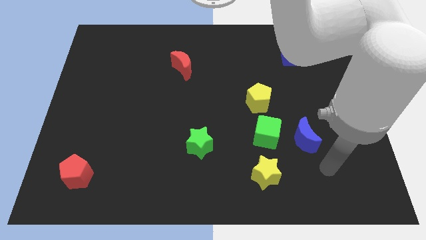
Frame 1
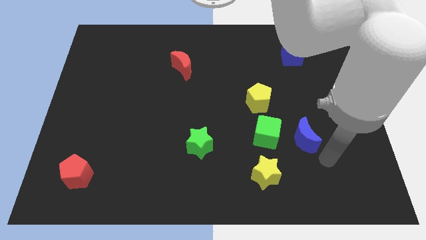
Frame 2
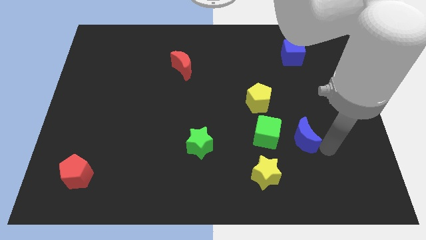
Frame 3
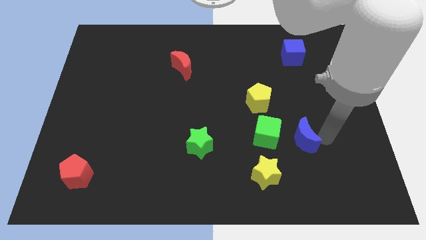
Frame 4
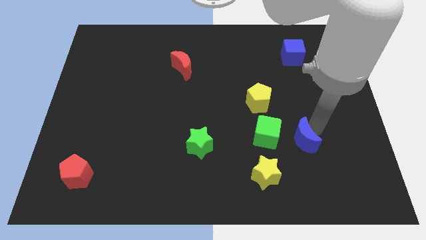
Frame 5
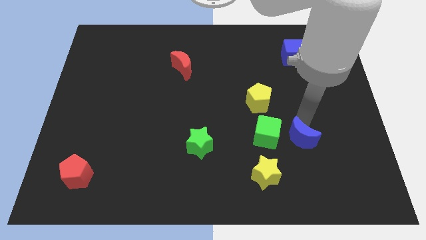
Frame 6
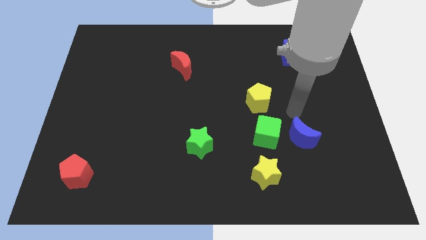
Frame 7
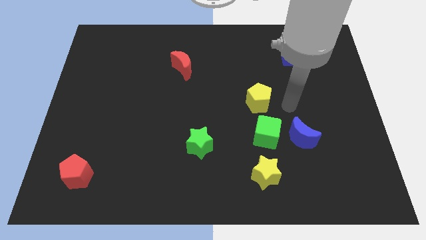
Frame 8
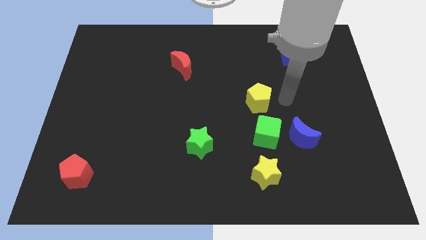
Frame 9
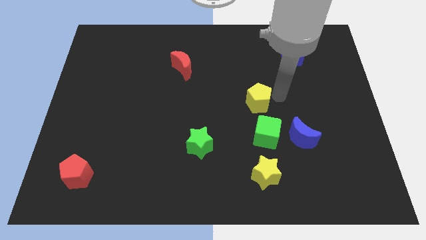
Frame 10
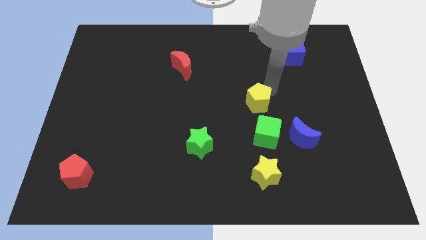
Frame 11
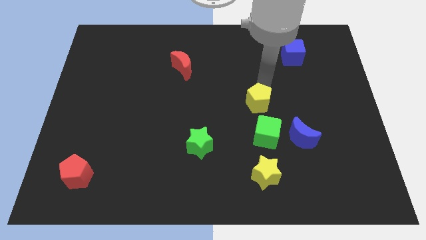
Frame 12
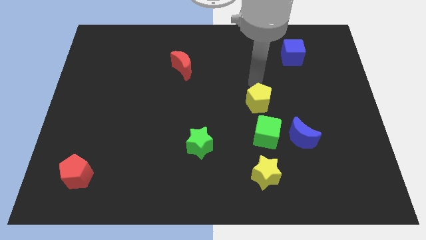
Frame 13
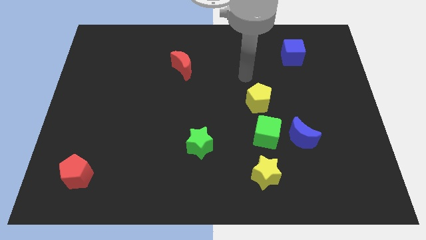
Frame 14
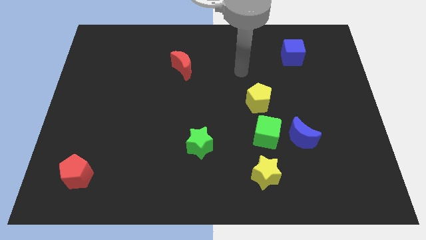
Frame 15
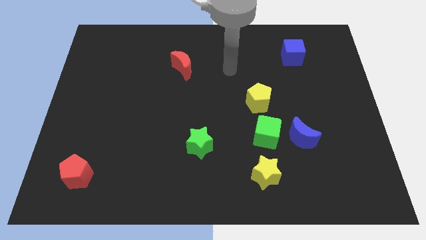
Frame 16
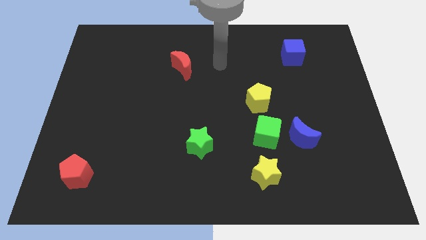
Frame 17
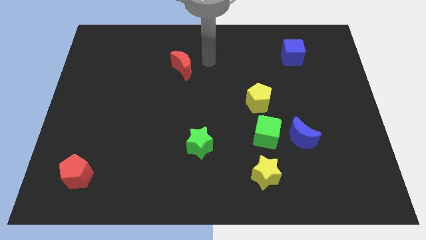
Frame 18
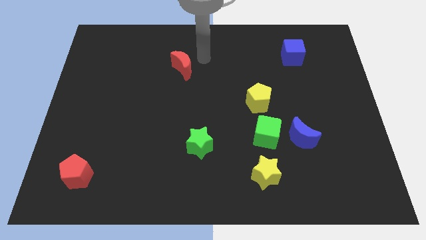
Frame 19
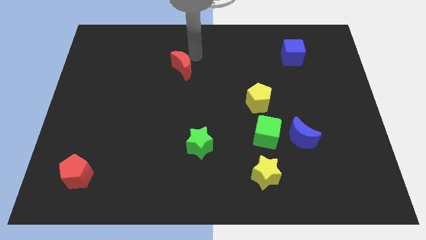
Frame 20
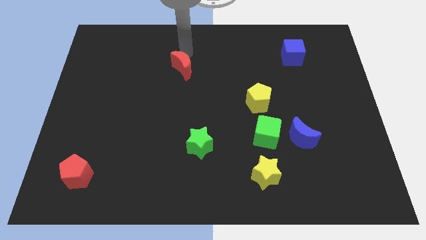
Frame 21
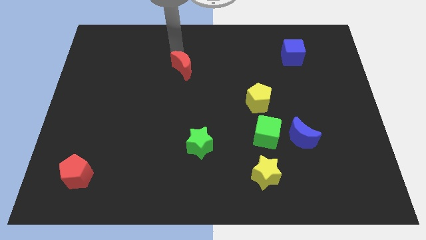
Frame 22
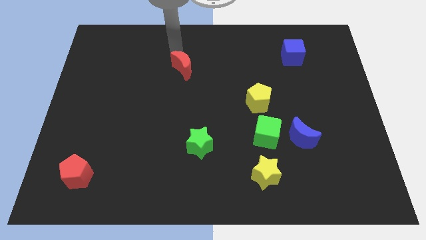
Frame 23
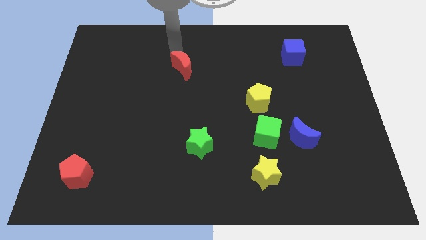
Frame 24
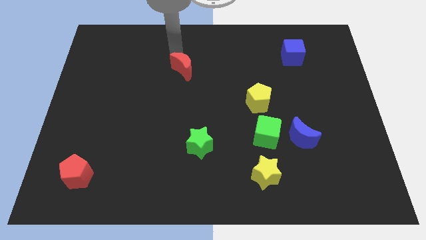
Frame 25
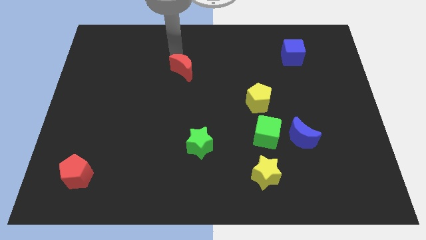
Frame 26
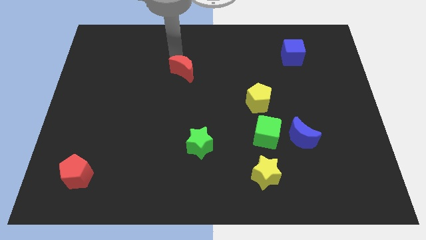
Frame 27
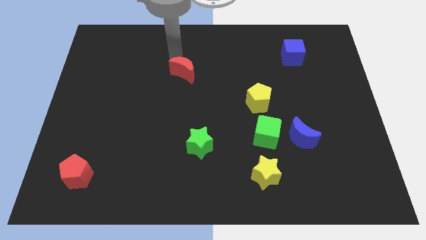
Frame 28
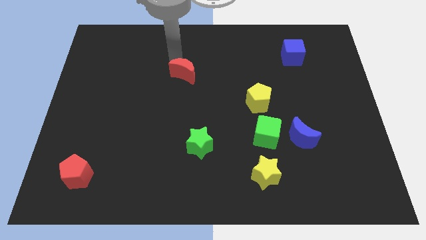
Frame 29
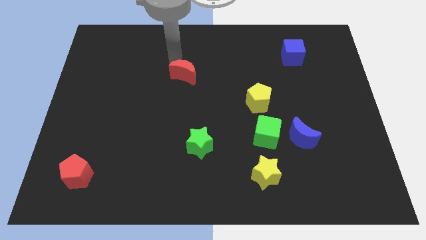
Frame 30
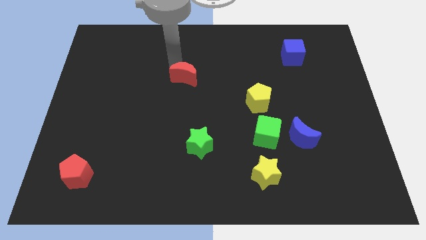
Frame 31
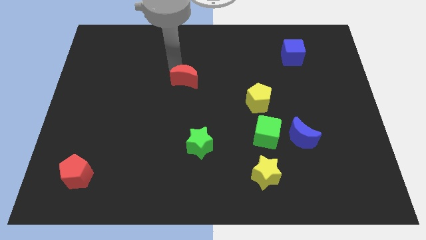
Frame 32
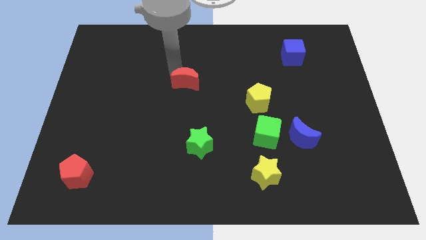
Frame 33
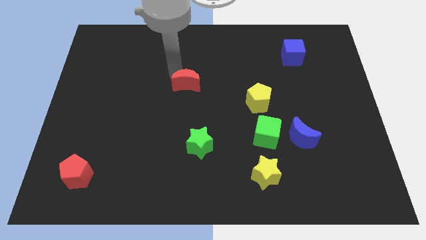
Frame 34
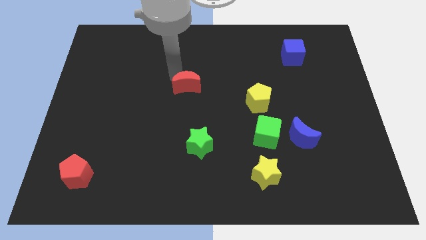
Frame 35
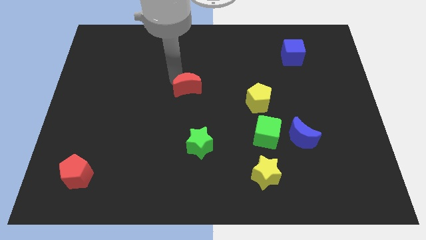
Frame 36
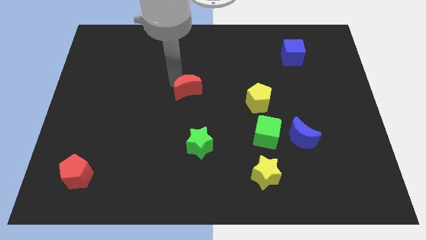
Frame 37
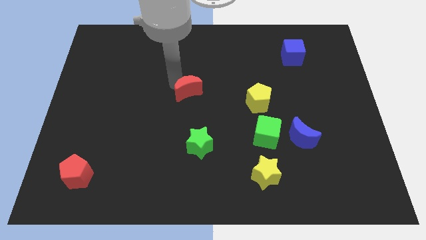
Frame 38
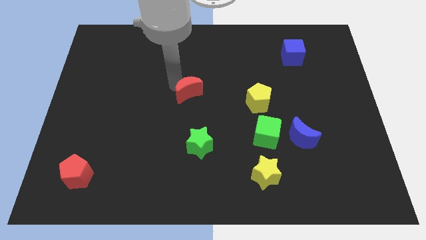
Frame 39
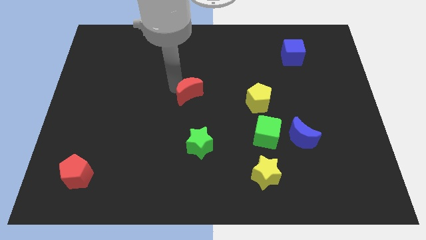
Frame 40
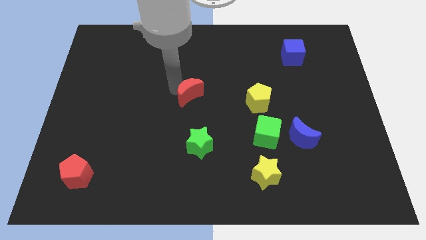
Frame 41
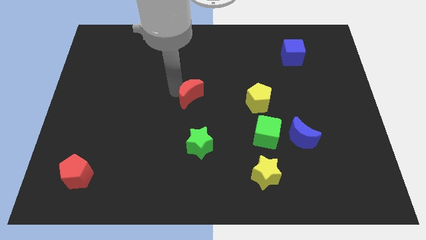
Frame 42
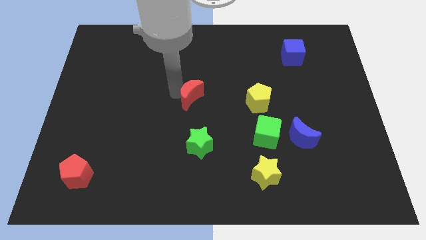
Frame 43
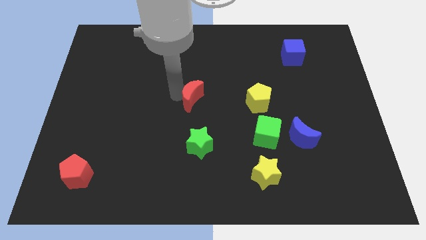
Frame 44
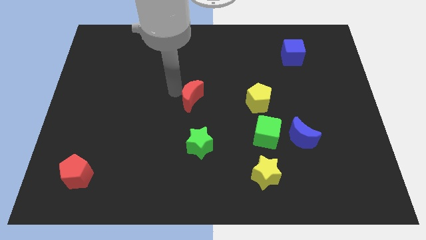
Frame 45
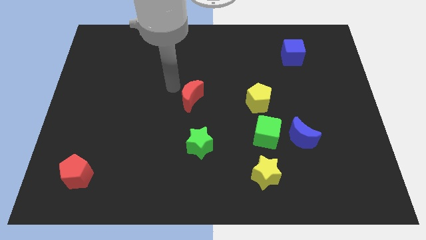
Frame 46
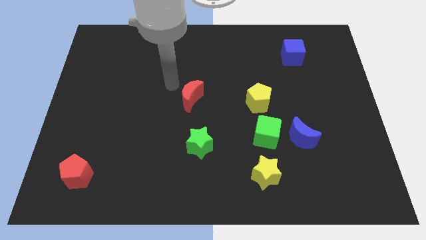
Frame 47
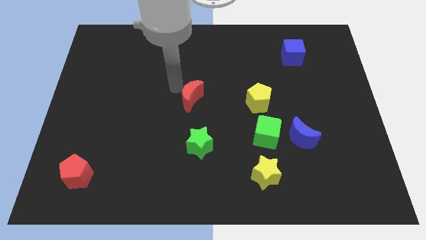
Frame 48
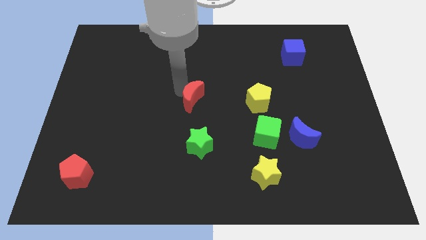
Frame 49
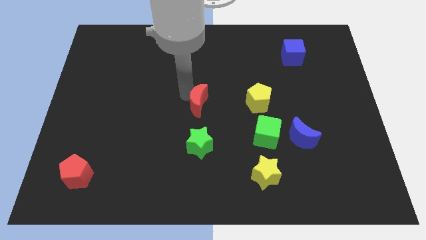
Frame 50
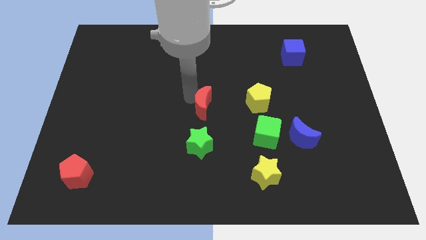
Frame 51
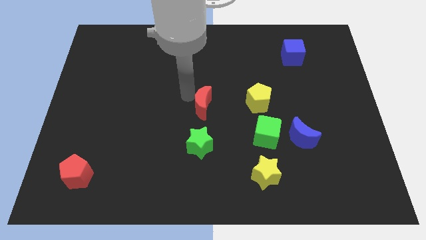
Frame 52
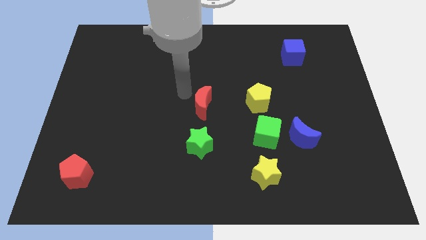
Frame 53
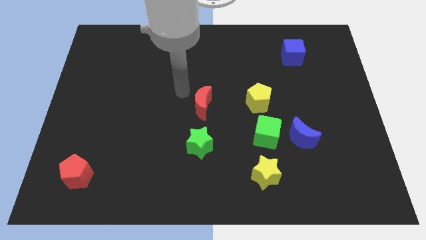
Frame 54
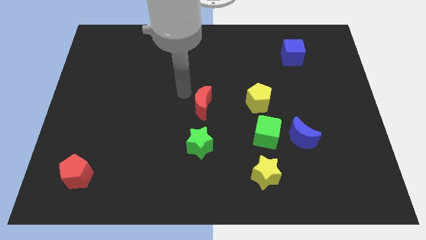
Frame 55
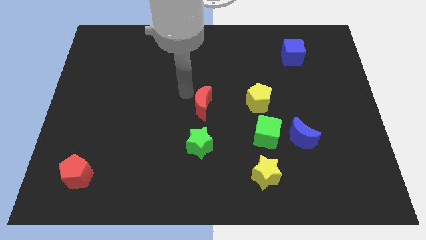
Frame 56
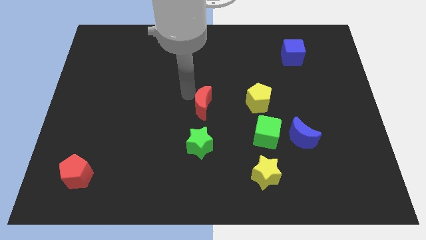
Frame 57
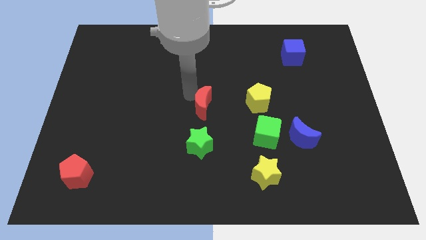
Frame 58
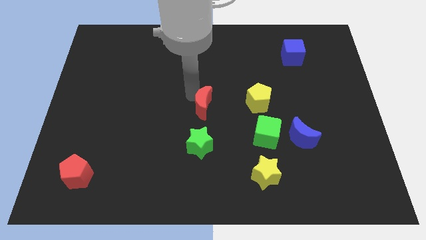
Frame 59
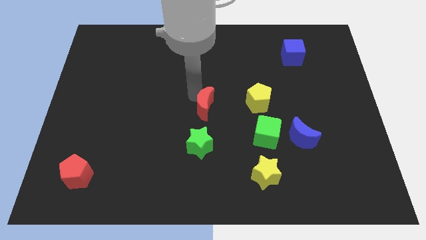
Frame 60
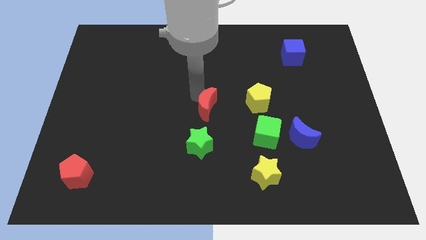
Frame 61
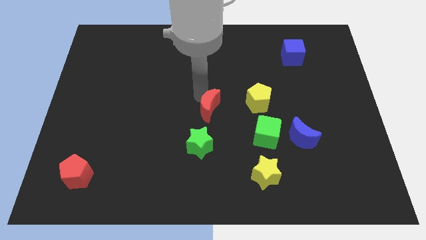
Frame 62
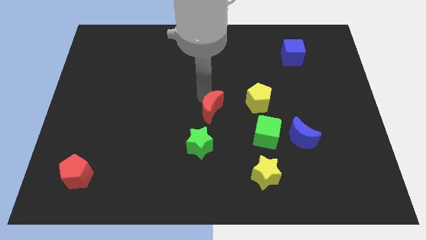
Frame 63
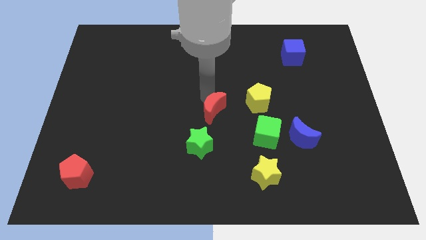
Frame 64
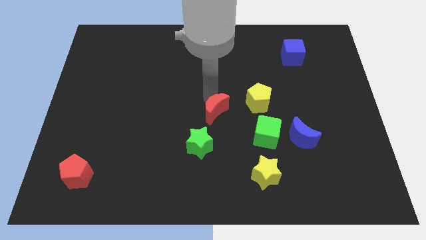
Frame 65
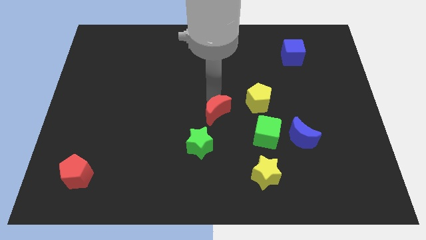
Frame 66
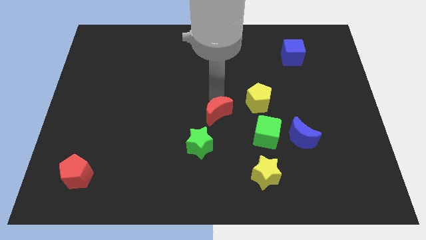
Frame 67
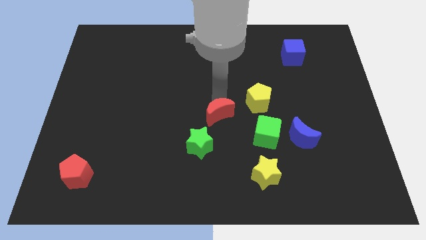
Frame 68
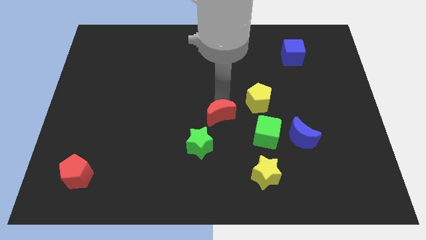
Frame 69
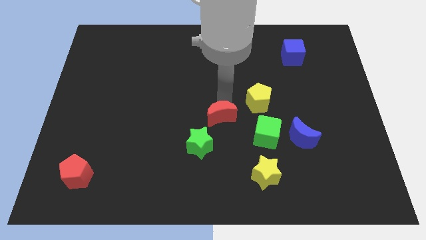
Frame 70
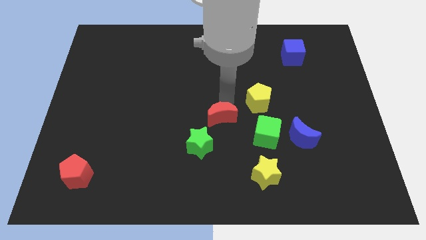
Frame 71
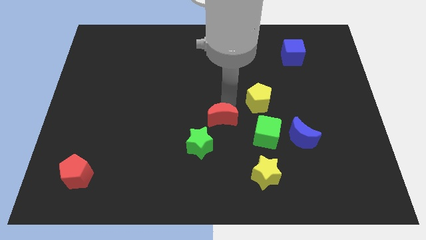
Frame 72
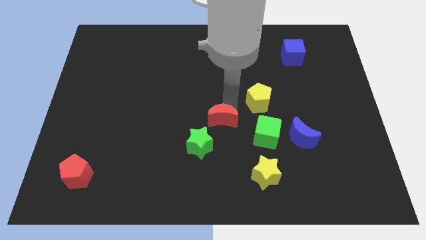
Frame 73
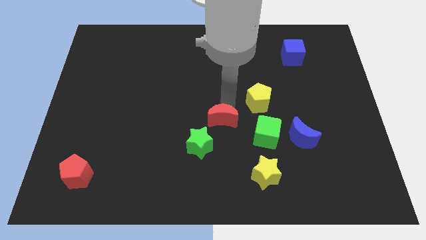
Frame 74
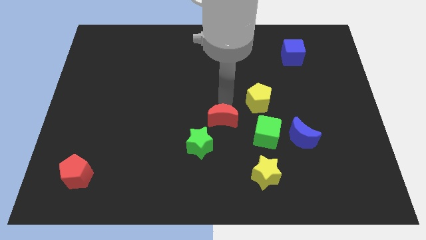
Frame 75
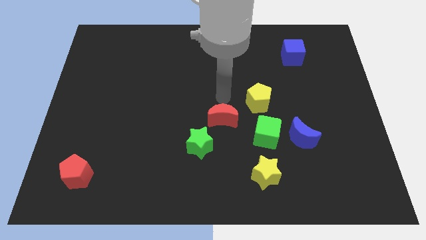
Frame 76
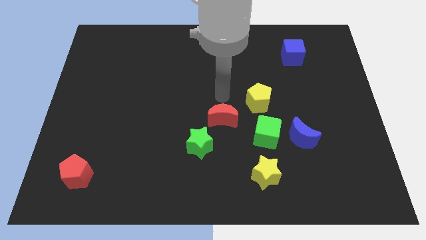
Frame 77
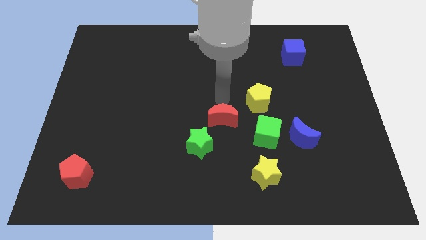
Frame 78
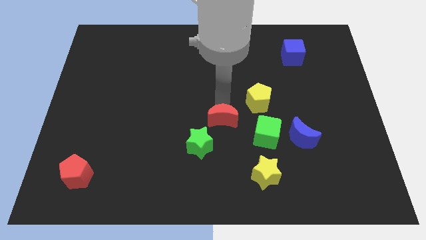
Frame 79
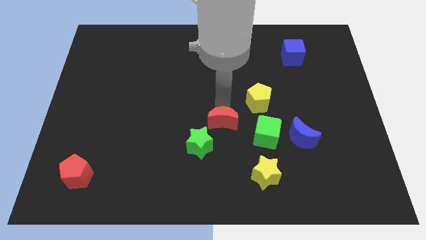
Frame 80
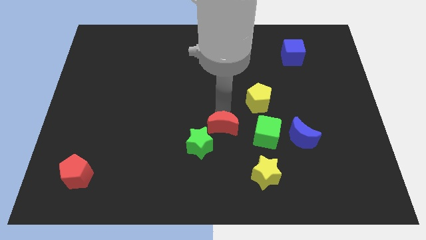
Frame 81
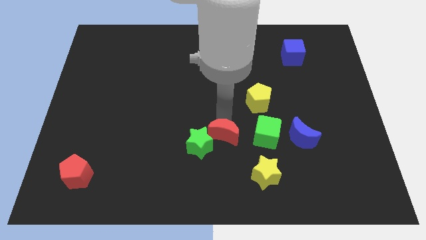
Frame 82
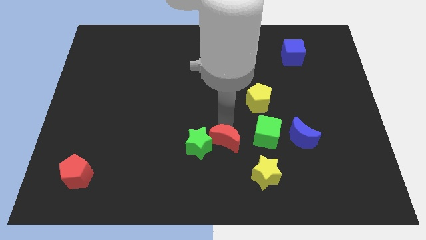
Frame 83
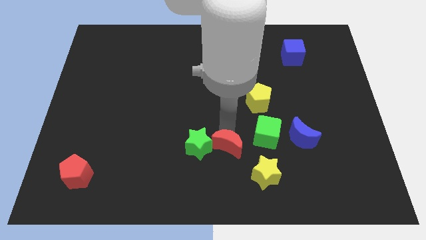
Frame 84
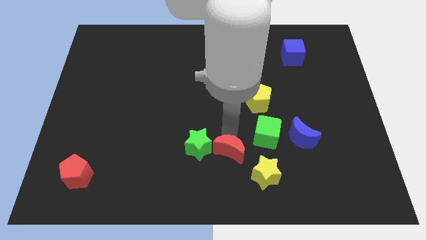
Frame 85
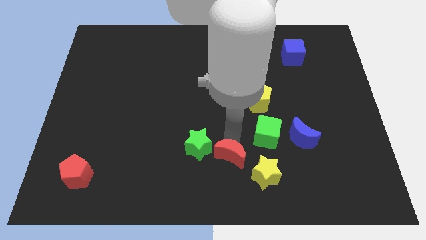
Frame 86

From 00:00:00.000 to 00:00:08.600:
move the red moon to the left of the yellow star
